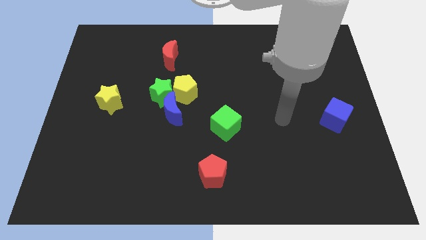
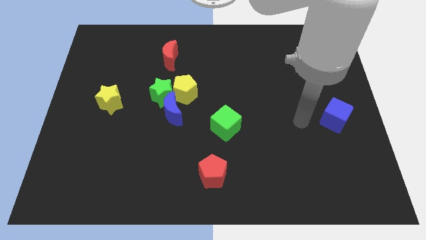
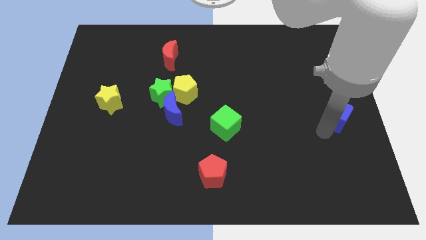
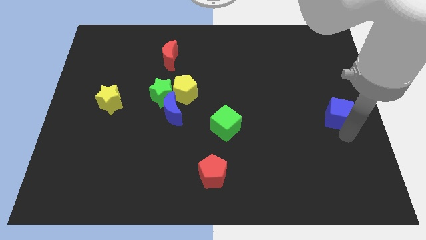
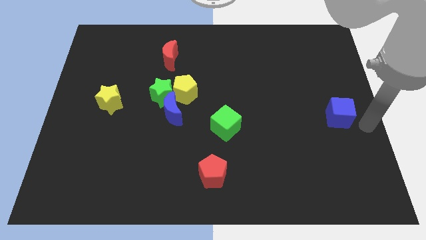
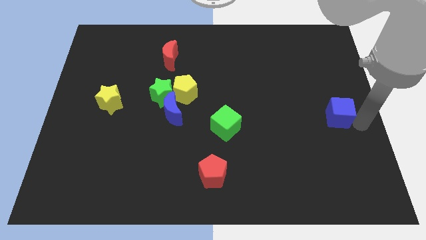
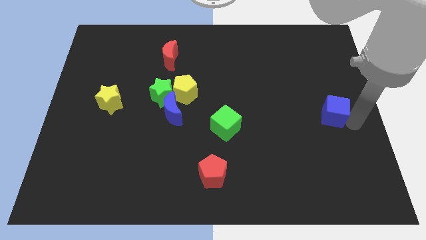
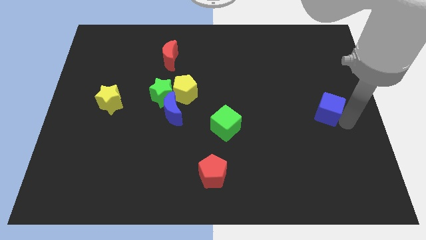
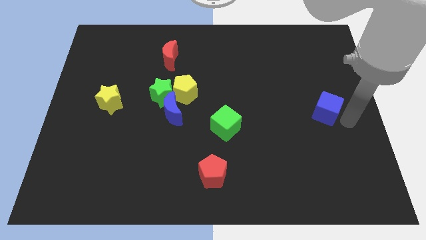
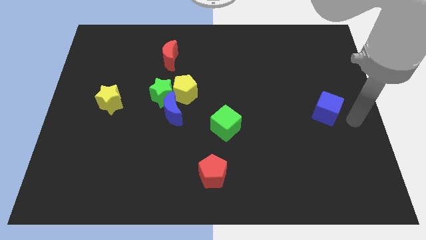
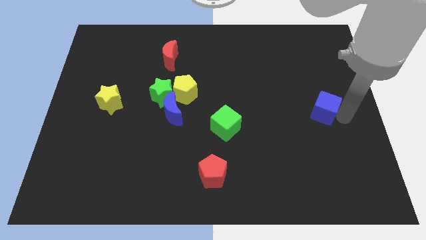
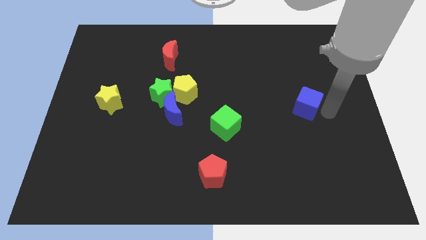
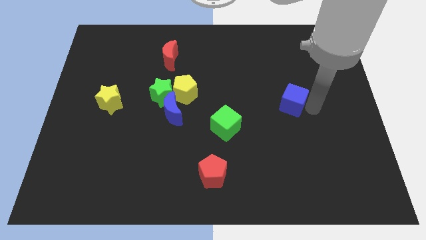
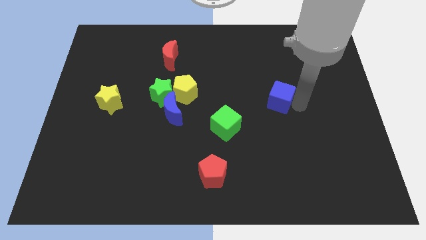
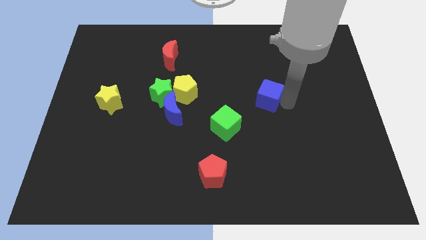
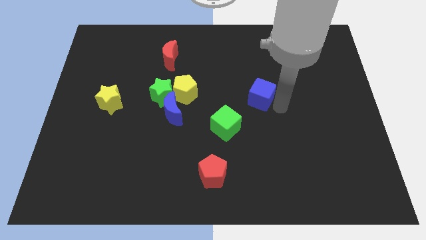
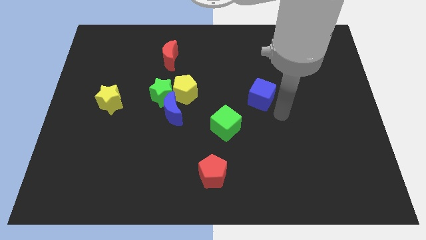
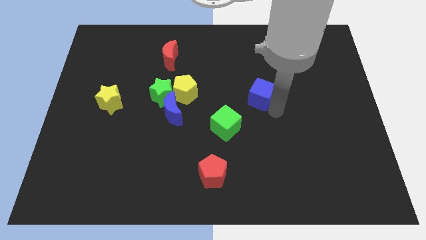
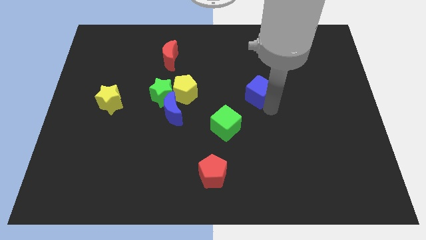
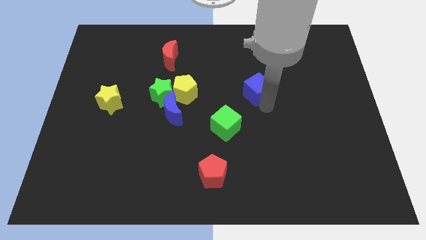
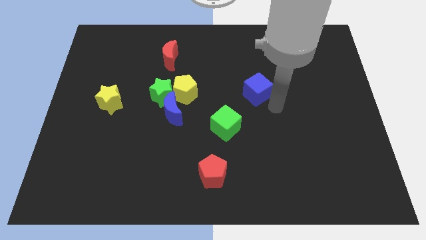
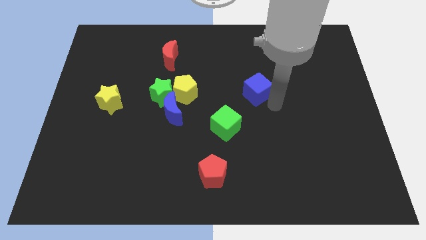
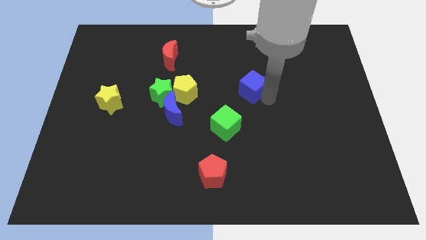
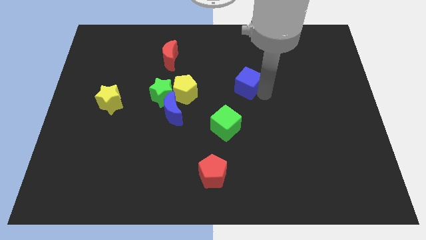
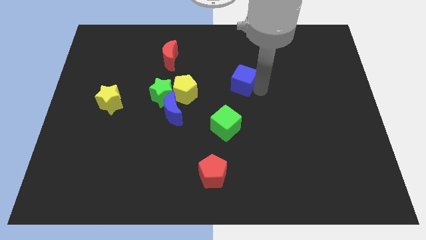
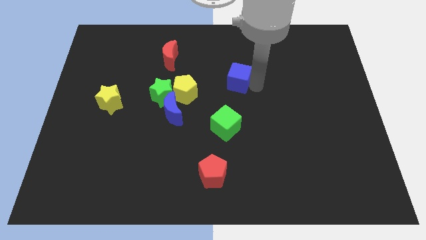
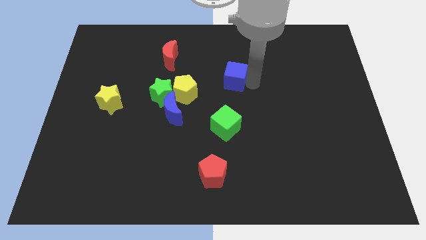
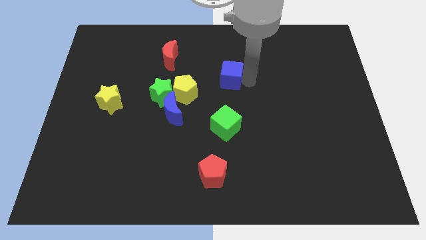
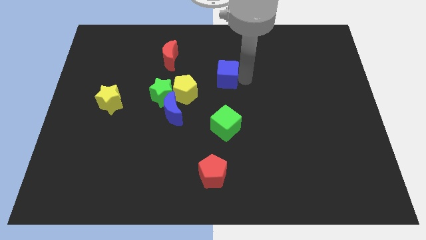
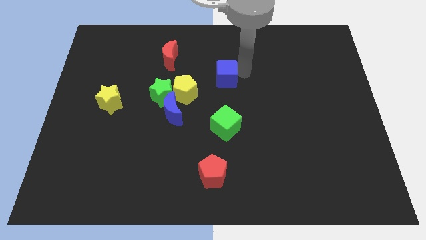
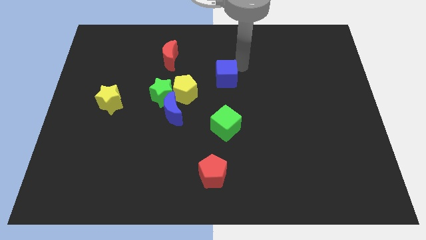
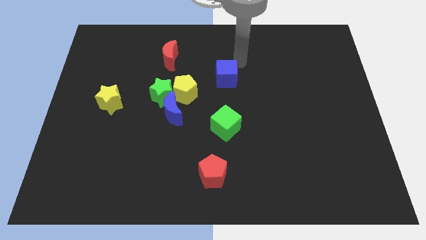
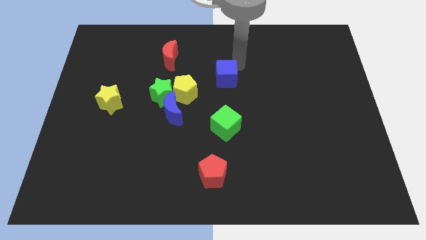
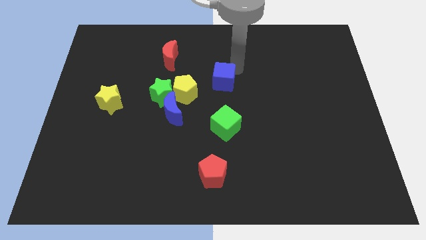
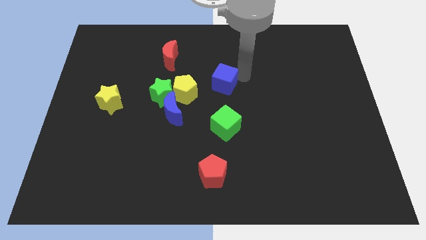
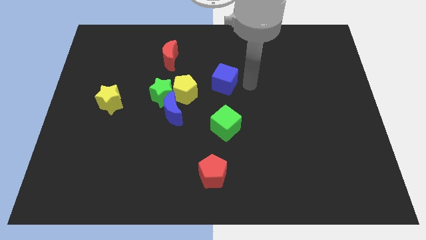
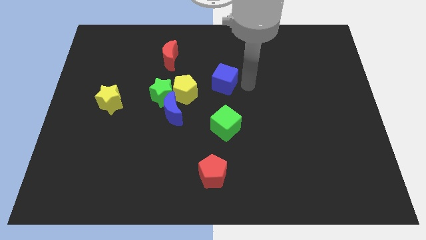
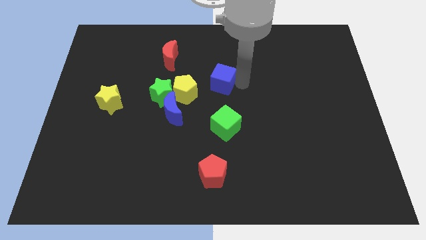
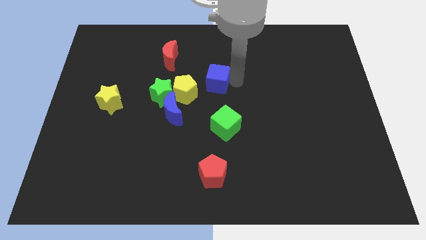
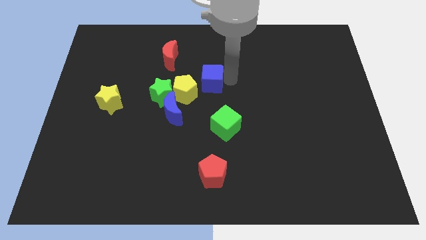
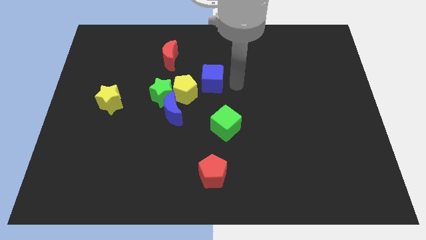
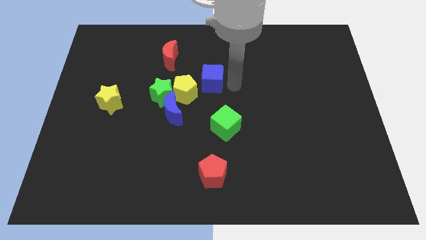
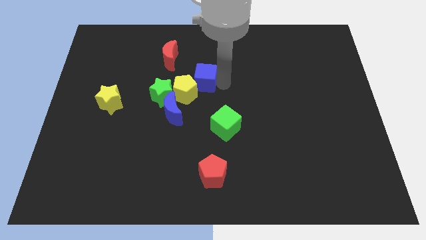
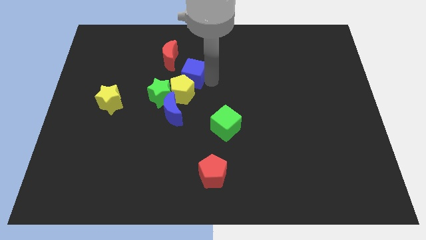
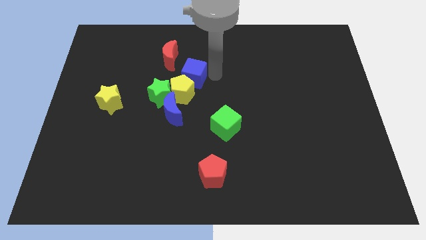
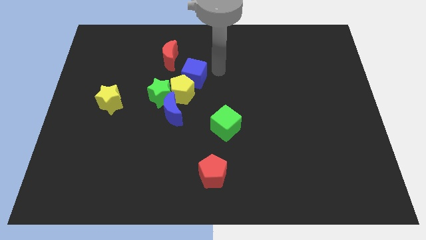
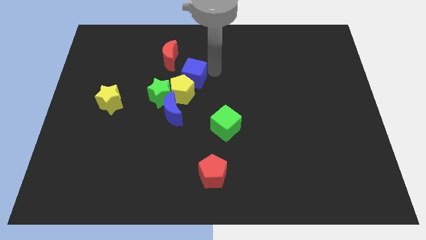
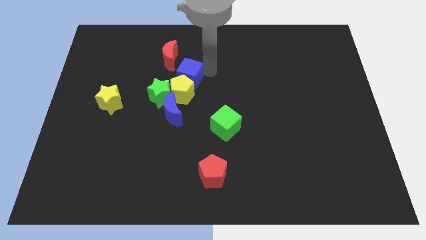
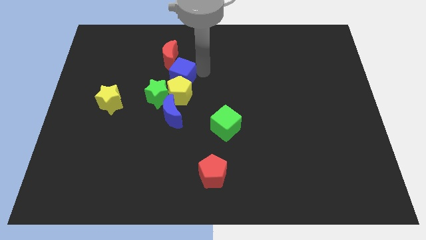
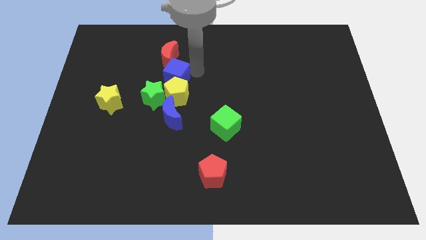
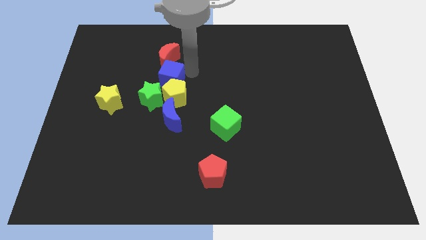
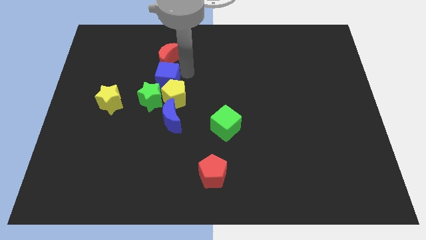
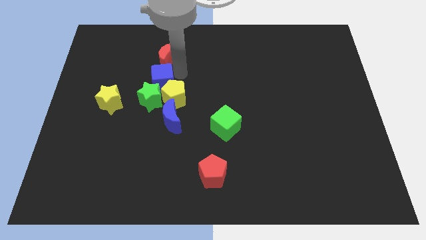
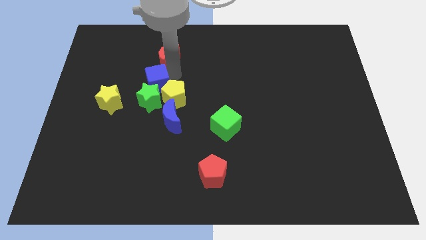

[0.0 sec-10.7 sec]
move the blue cube to the top right side of the yellow star

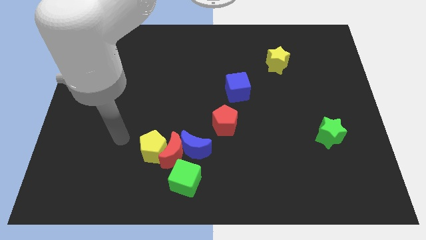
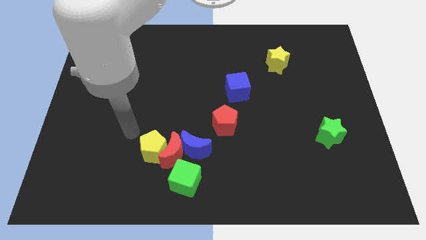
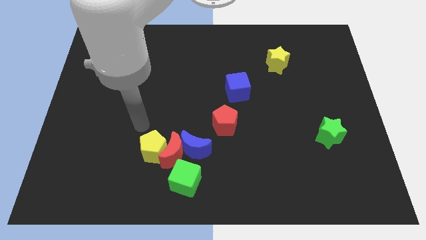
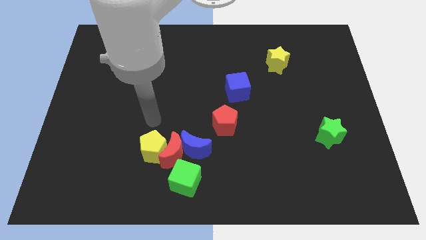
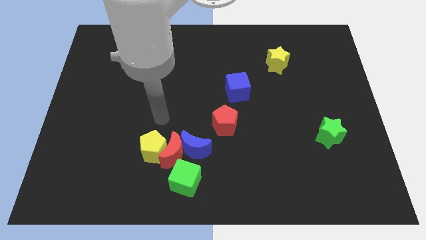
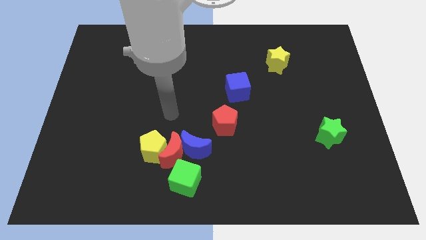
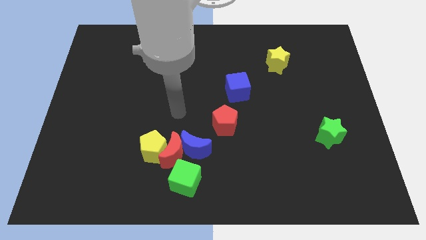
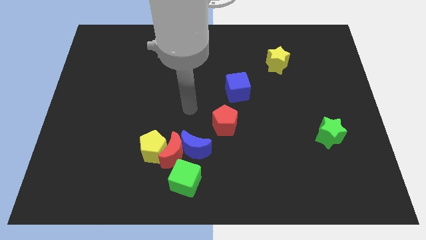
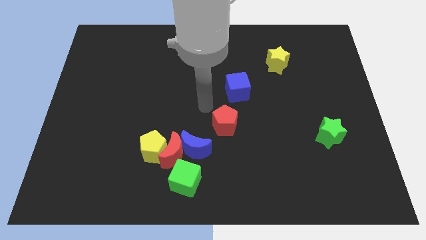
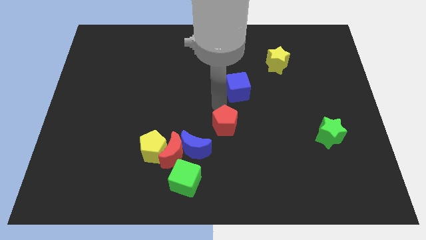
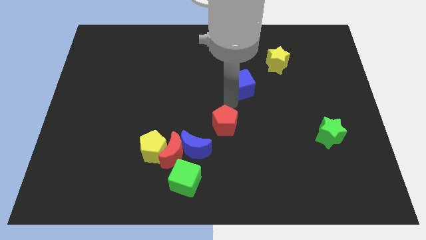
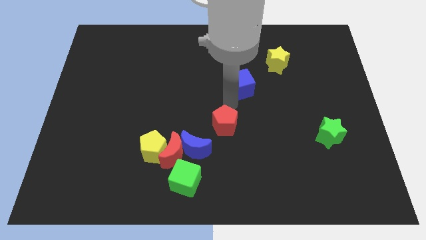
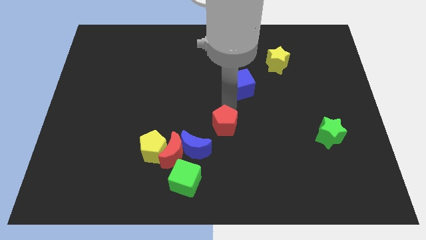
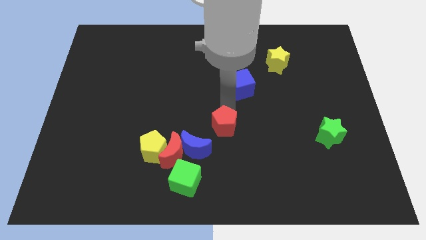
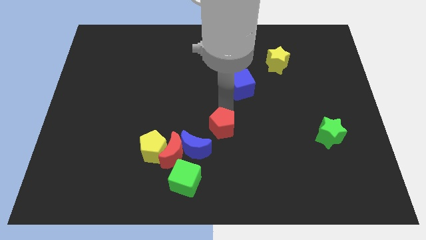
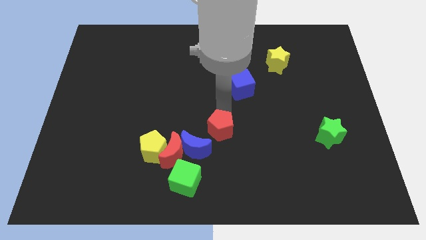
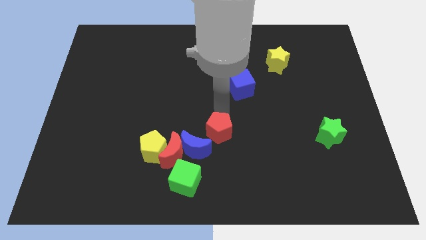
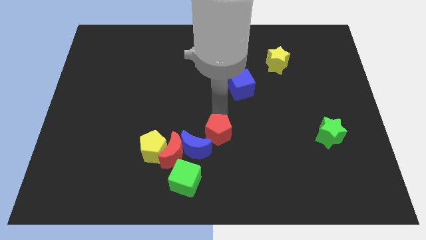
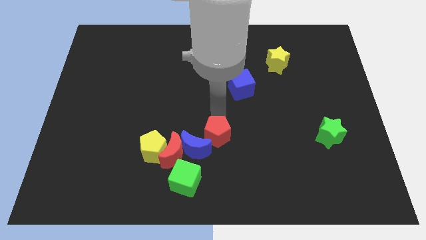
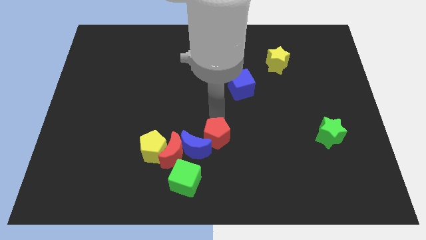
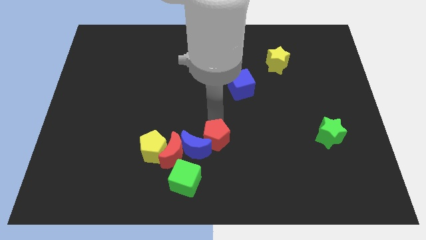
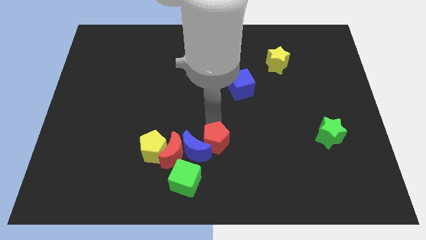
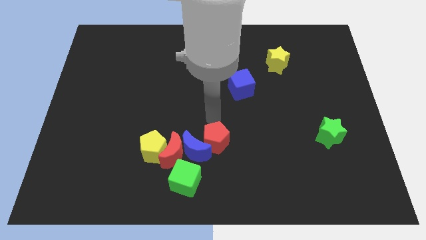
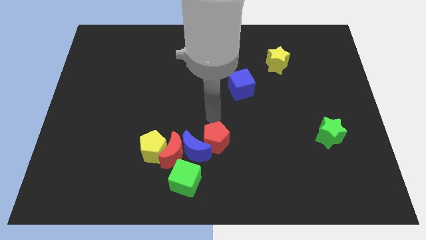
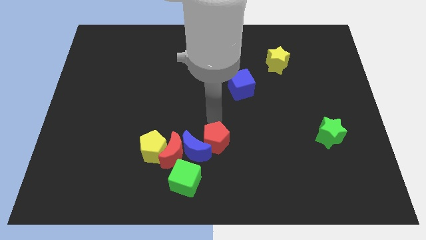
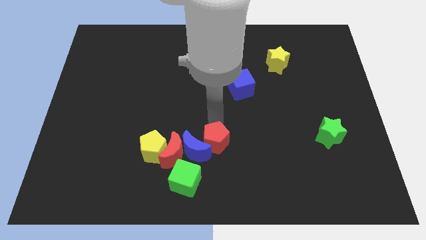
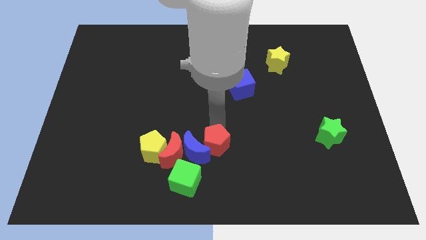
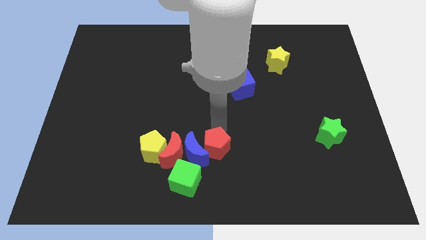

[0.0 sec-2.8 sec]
put the red pentagon to the bottom right side of the blue moon
